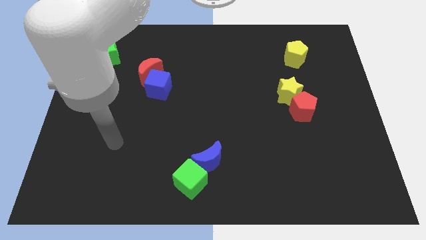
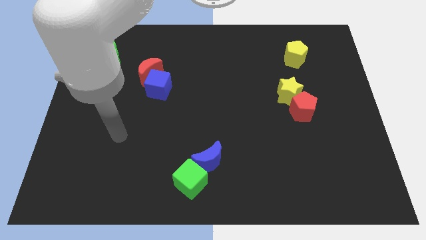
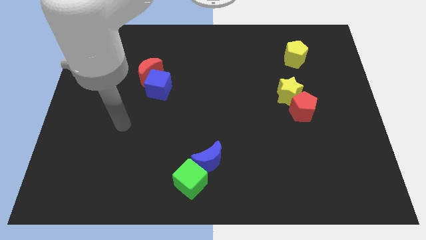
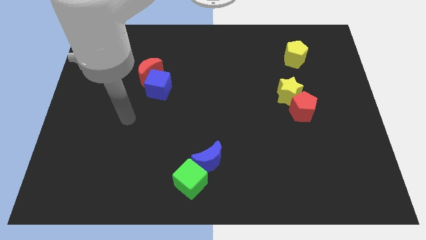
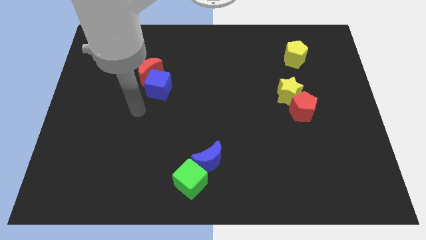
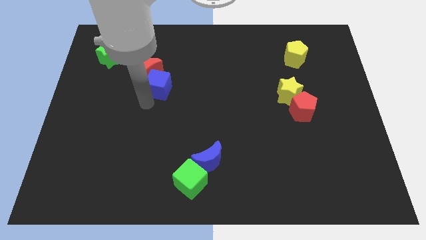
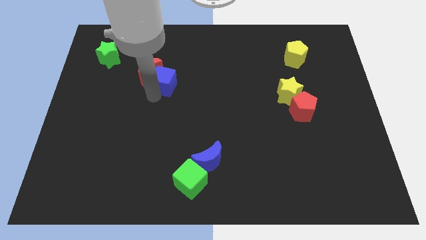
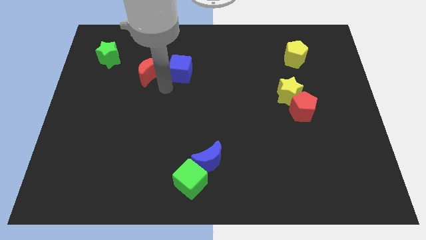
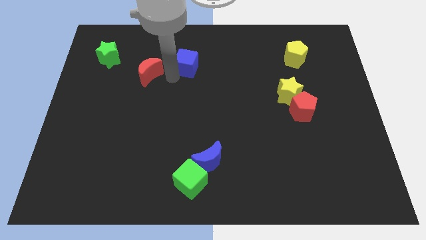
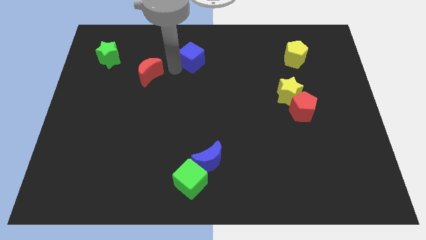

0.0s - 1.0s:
separate the red moon from the blue cube

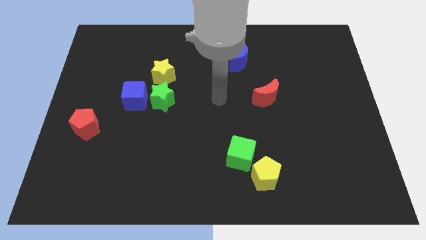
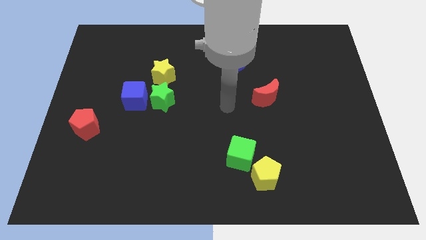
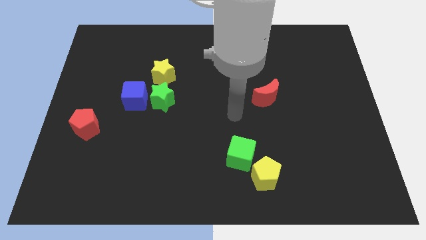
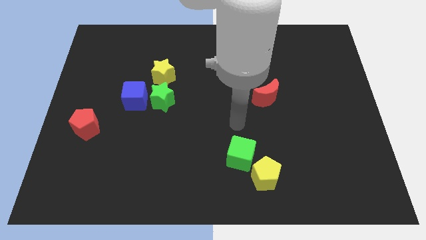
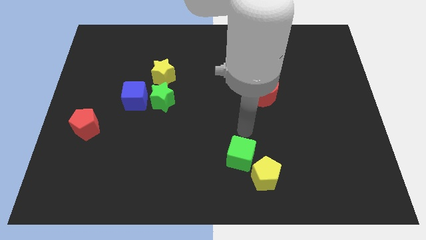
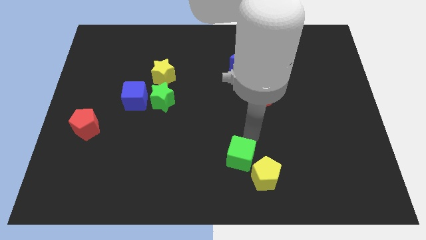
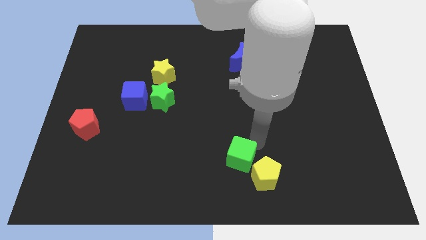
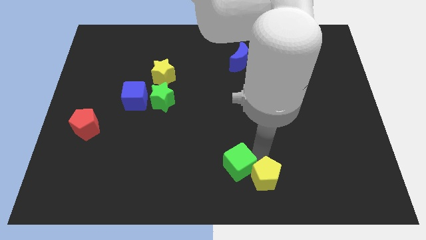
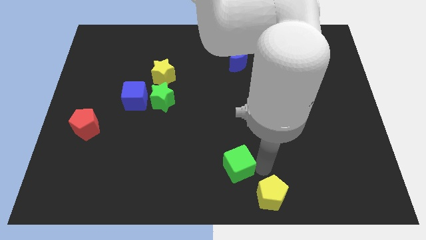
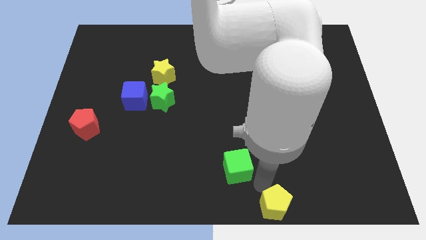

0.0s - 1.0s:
pull the green cube apart from the yellow pentagon

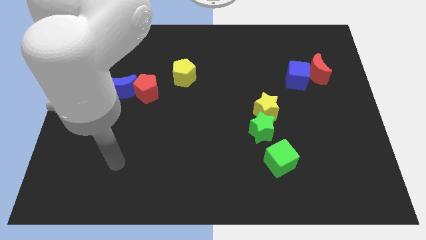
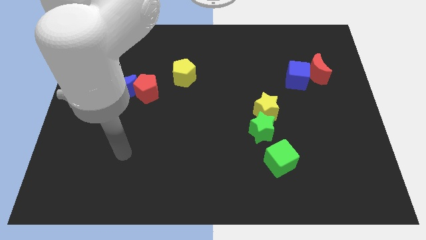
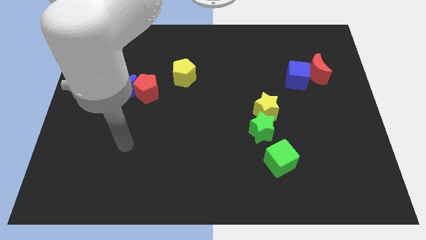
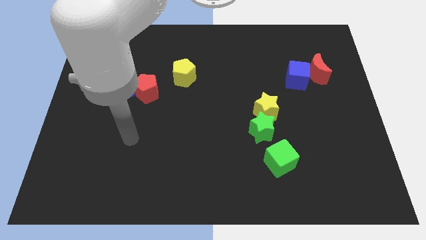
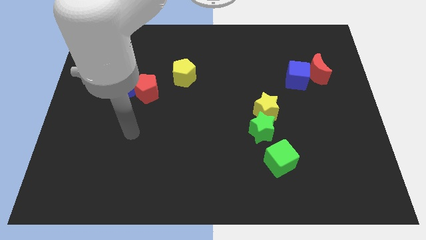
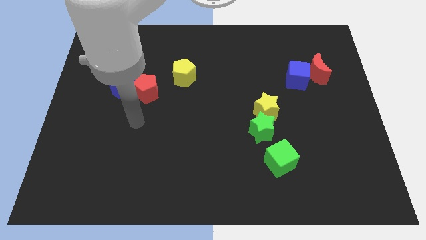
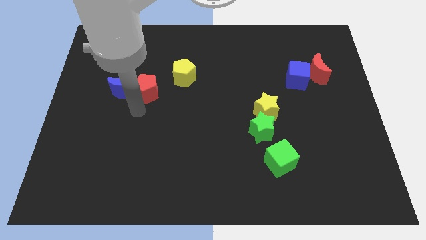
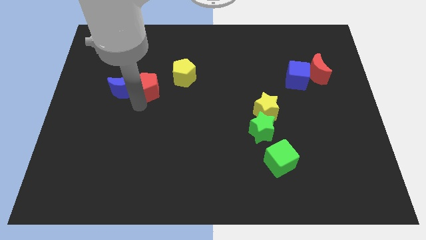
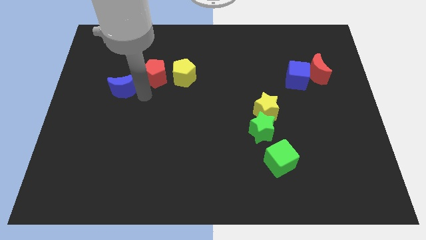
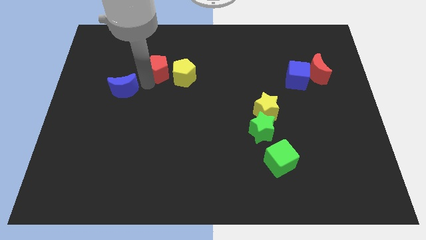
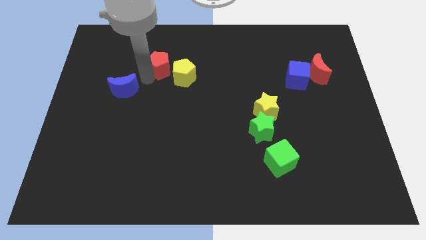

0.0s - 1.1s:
separate the blue moon from the red pentagon

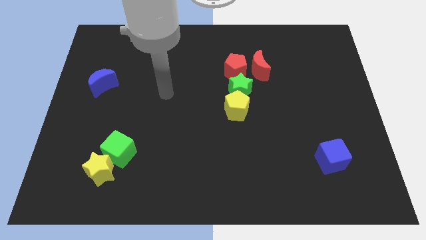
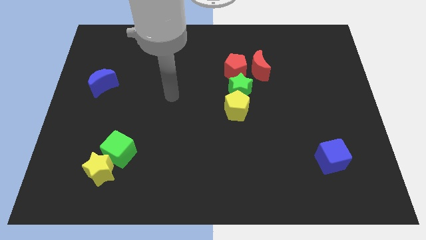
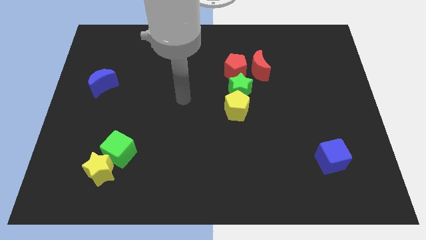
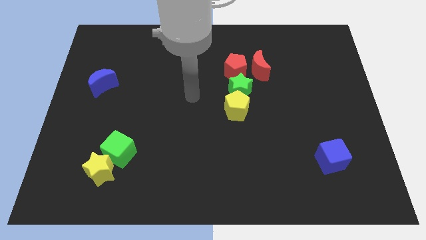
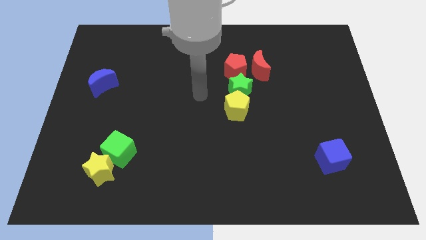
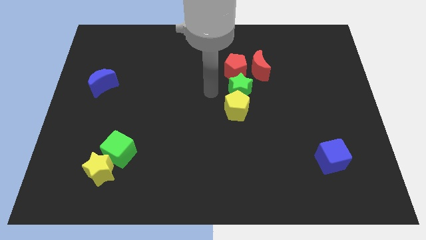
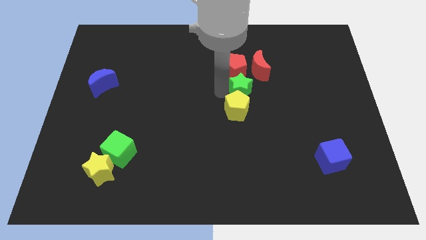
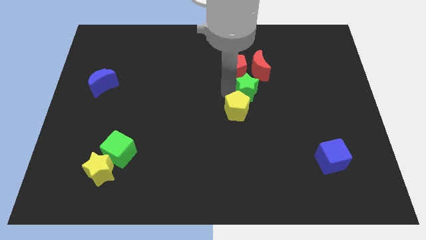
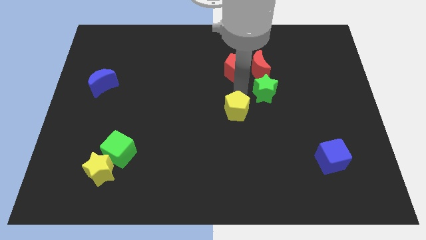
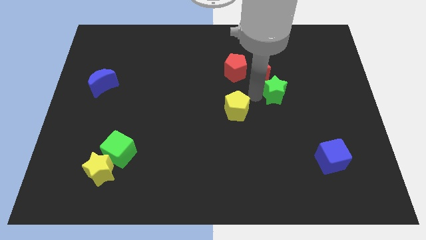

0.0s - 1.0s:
move the yellow pentagon away from the green star

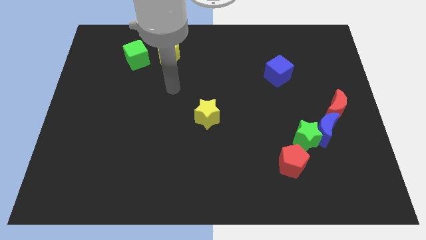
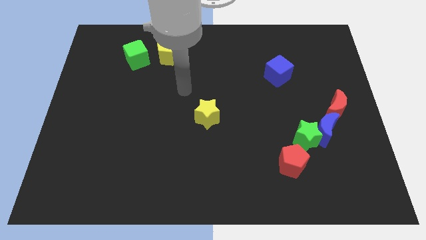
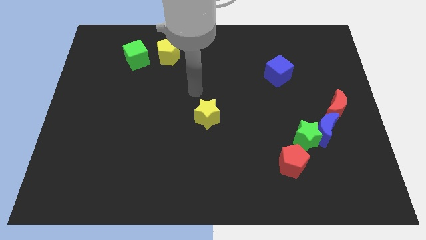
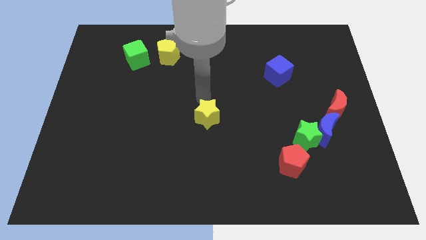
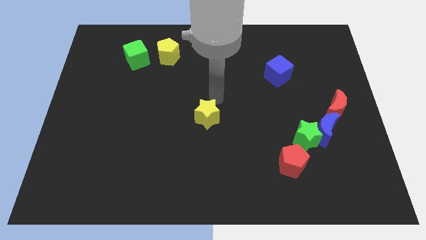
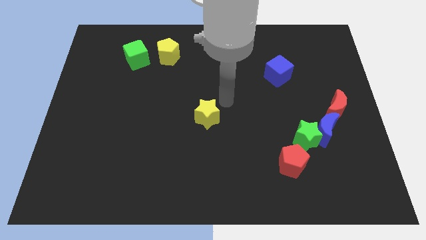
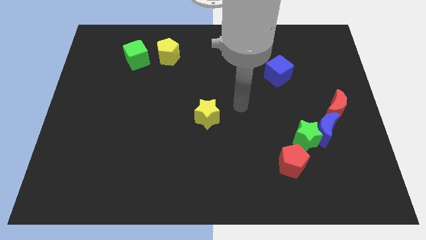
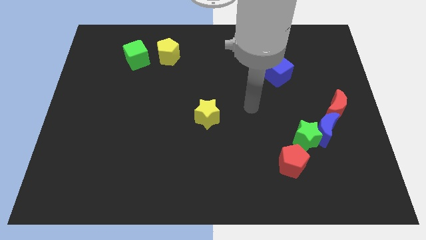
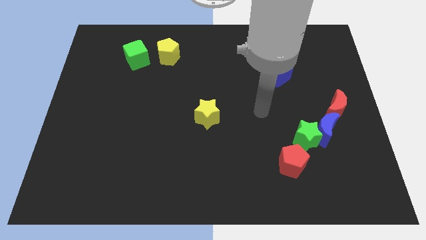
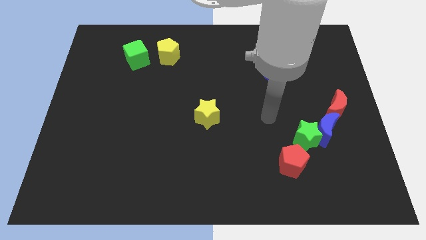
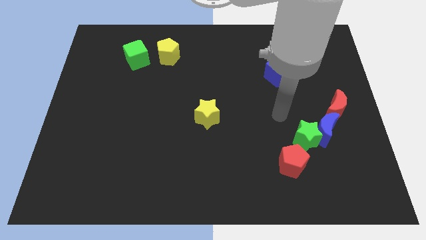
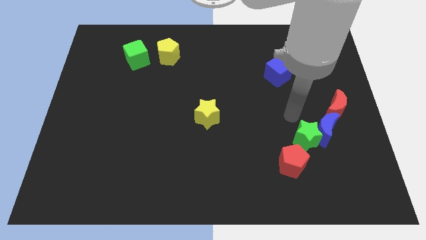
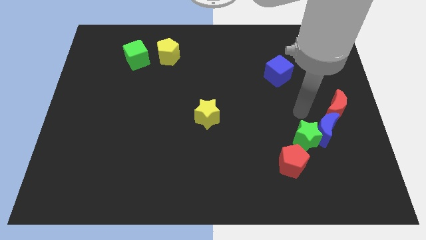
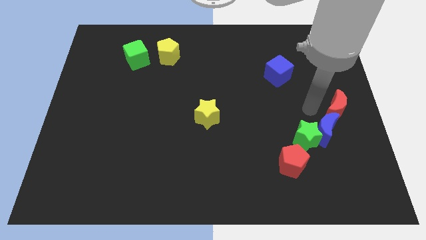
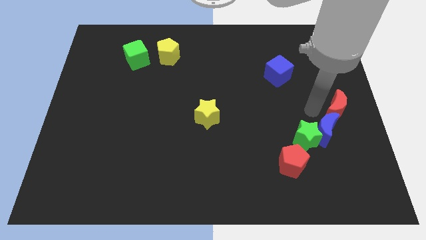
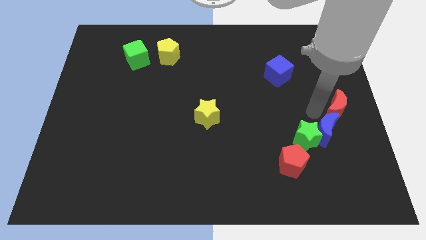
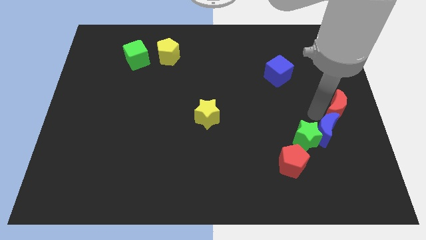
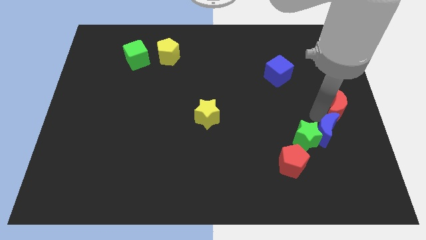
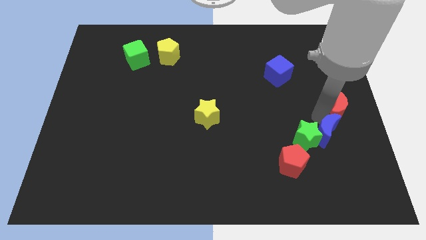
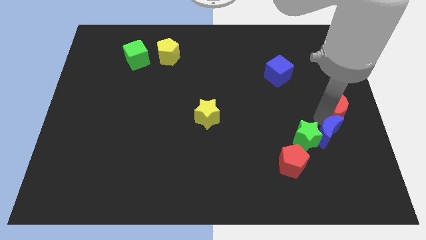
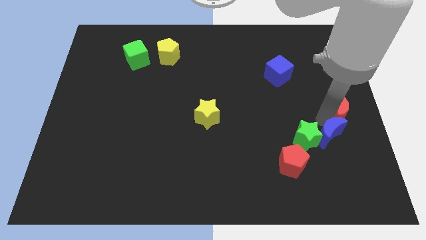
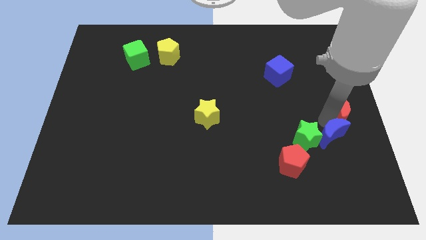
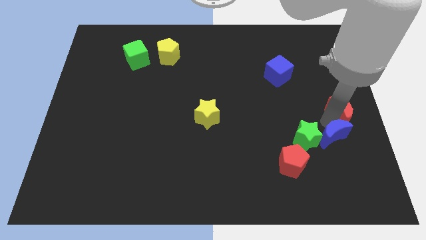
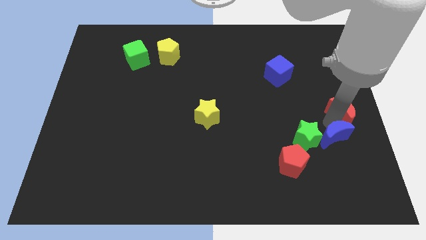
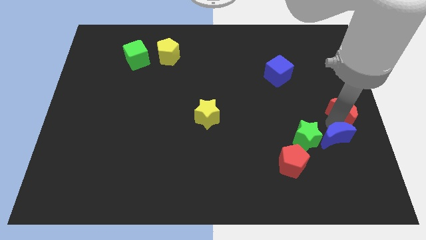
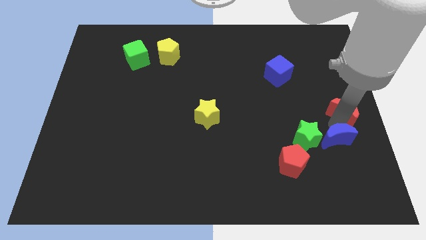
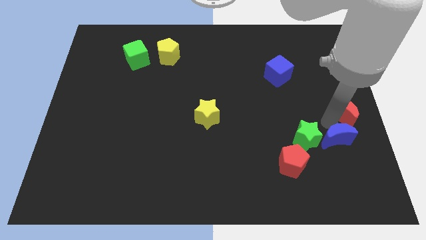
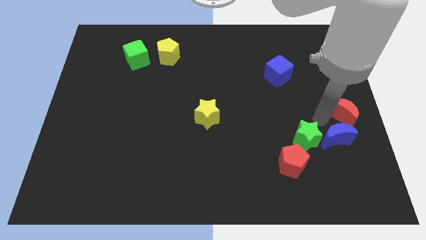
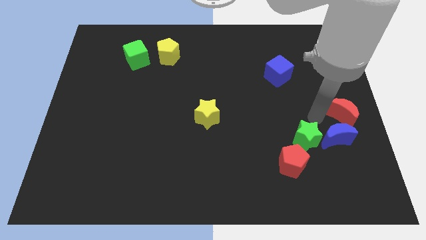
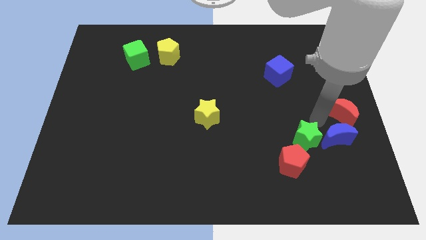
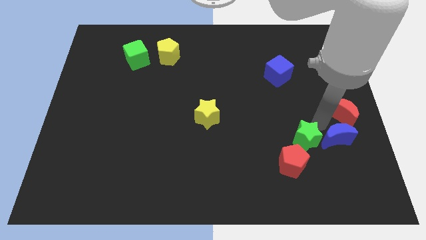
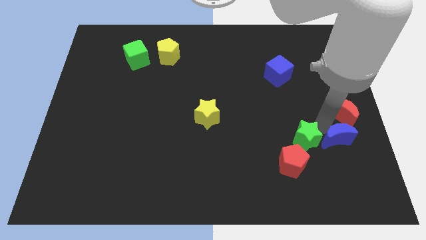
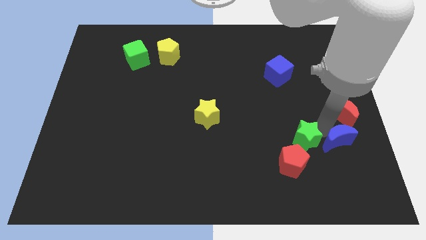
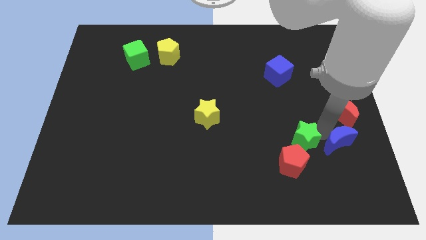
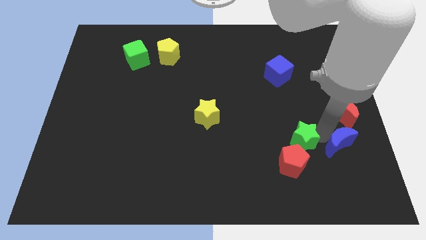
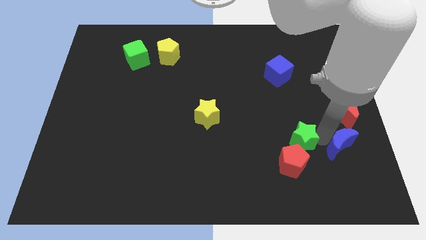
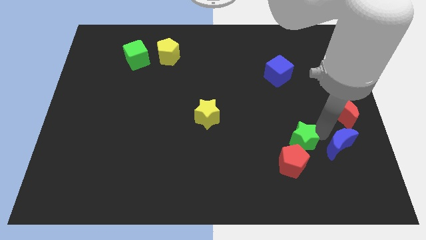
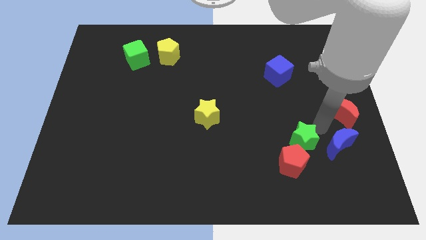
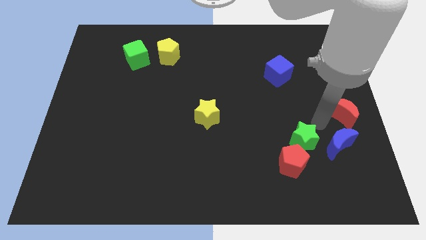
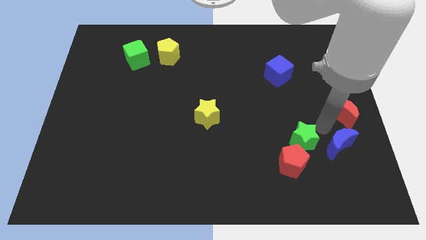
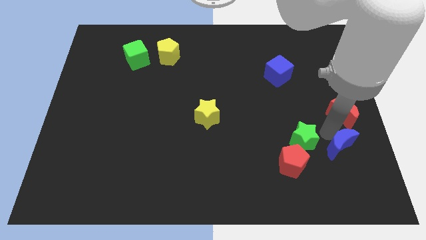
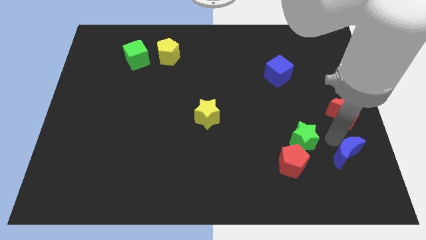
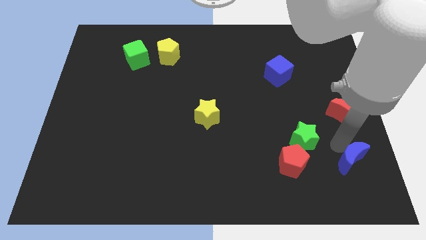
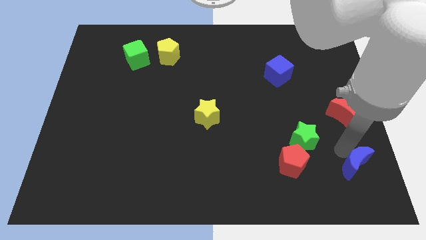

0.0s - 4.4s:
separate the blue moon from the green star and red moon

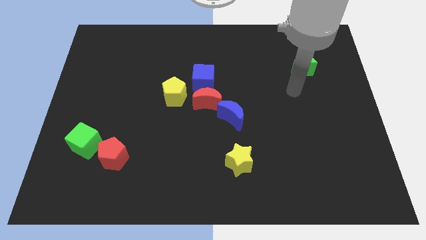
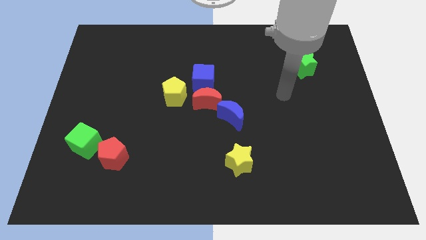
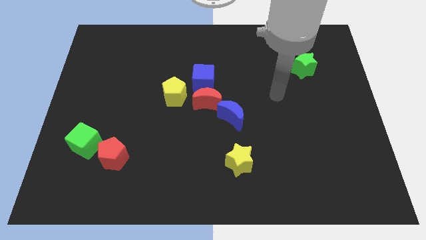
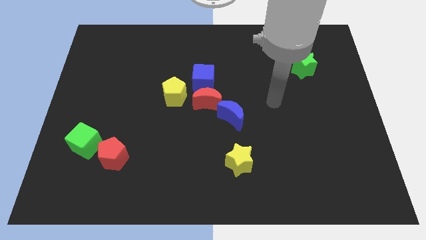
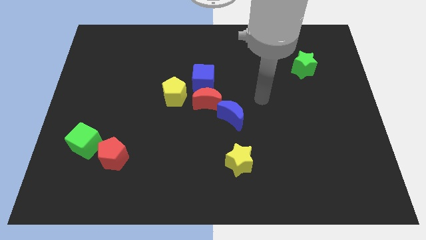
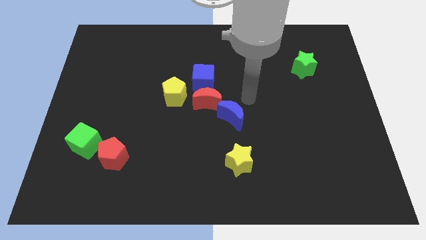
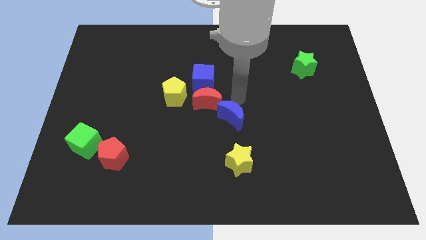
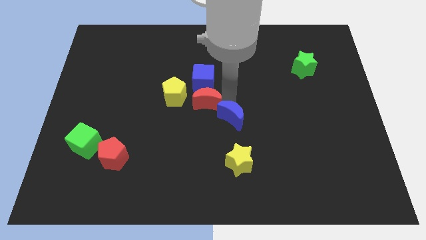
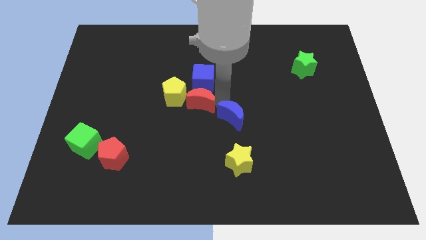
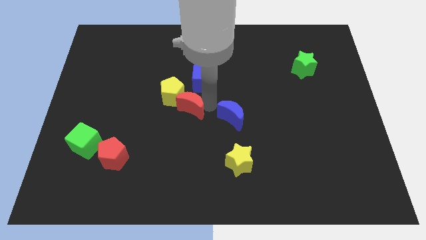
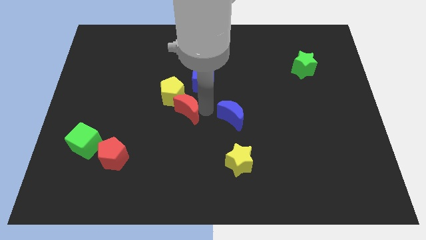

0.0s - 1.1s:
move the blue moon away from the red moon
